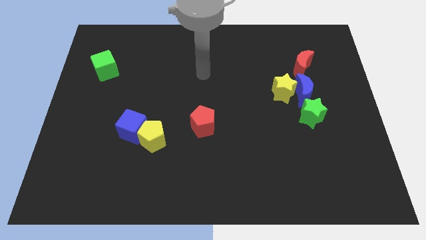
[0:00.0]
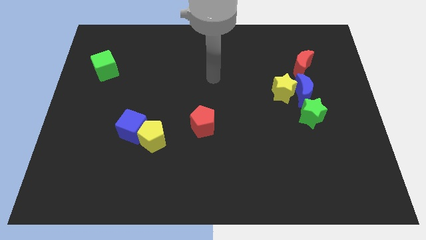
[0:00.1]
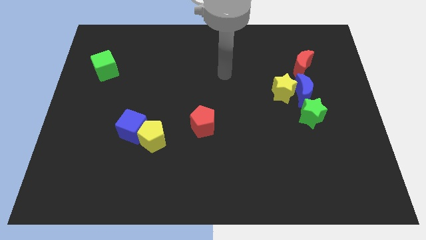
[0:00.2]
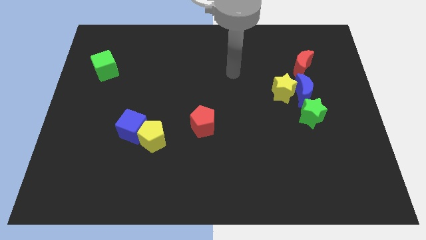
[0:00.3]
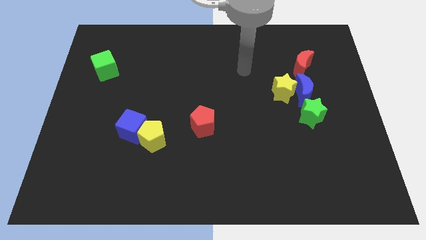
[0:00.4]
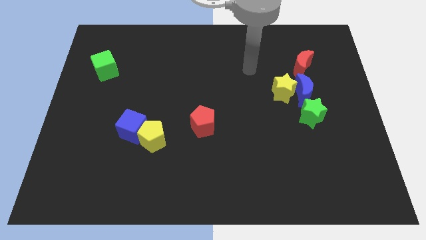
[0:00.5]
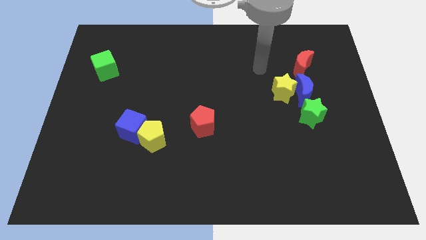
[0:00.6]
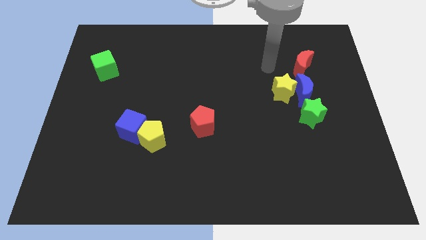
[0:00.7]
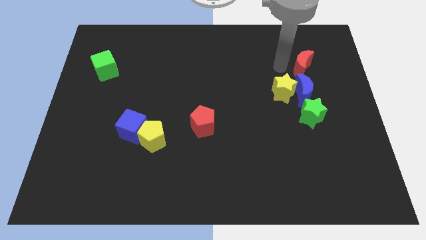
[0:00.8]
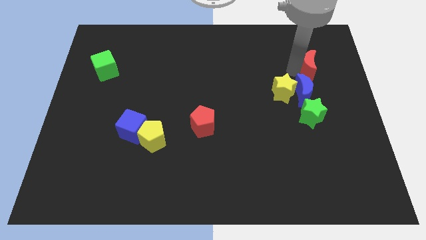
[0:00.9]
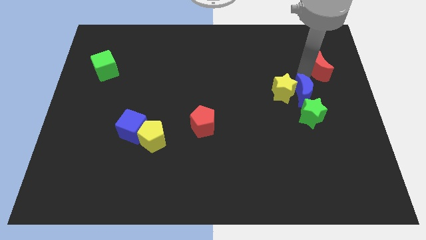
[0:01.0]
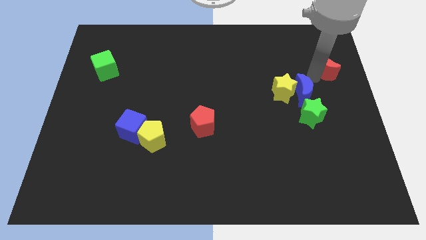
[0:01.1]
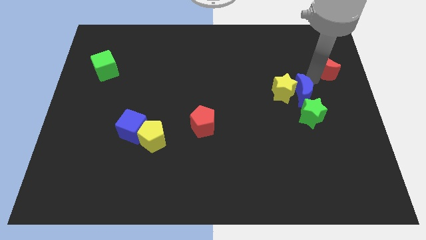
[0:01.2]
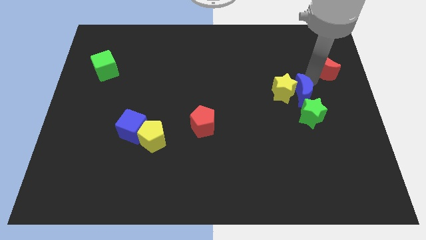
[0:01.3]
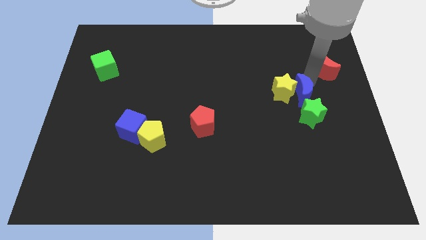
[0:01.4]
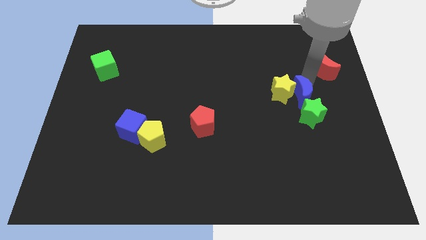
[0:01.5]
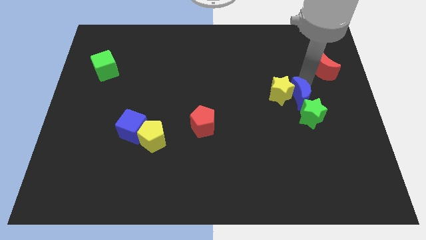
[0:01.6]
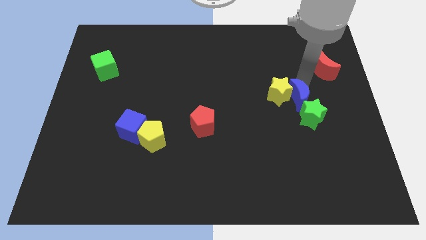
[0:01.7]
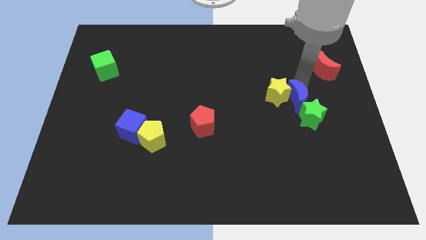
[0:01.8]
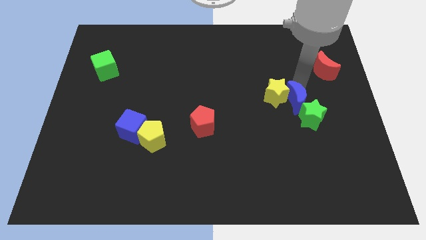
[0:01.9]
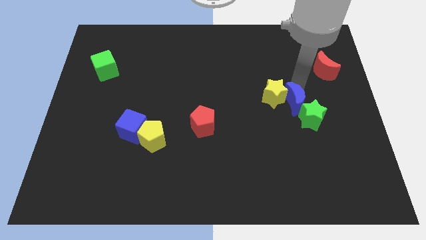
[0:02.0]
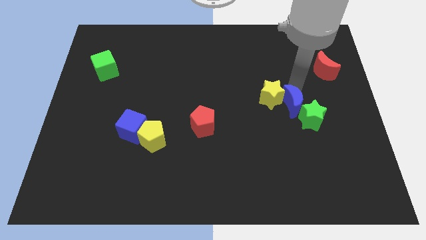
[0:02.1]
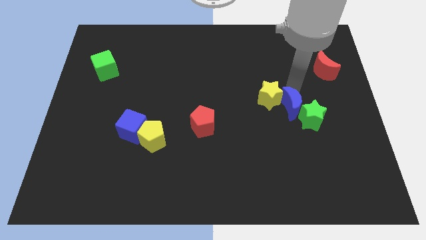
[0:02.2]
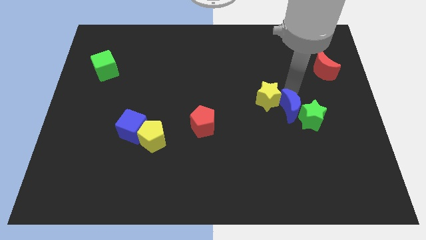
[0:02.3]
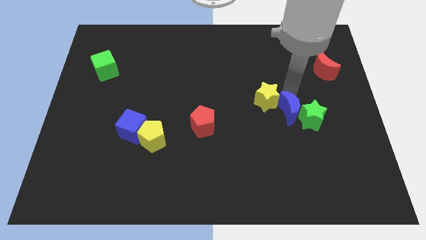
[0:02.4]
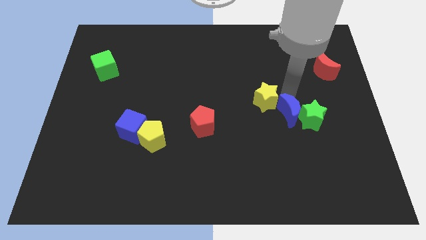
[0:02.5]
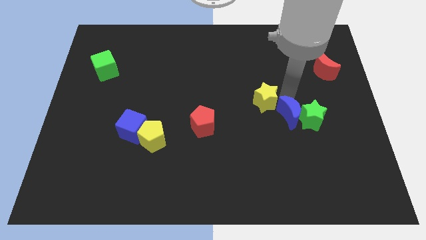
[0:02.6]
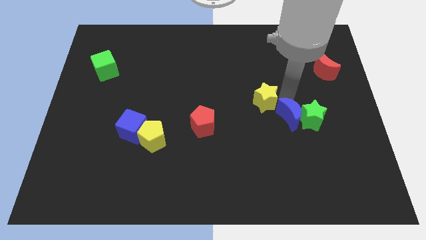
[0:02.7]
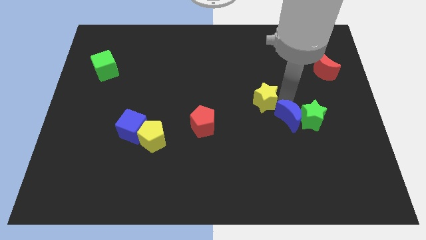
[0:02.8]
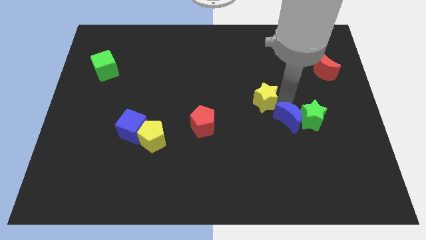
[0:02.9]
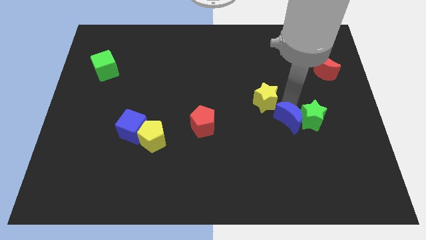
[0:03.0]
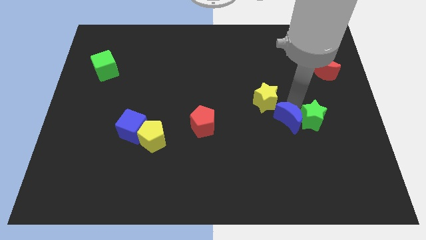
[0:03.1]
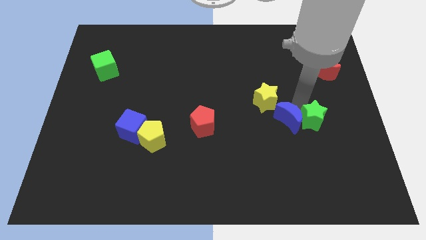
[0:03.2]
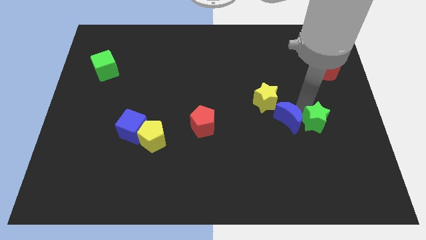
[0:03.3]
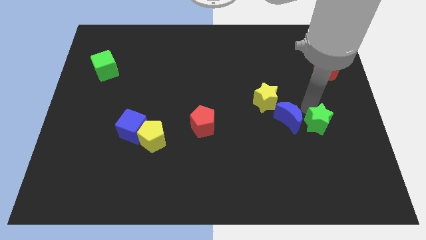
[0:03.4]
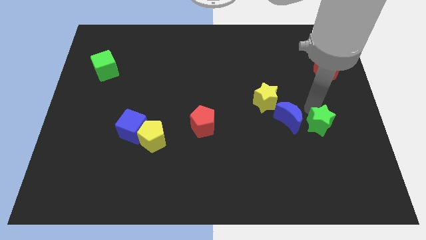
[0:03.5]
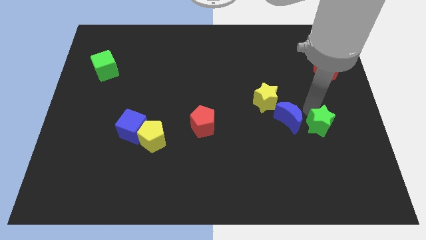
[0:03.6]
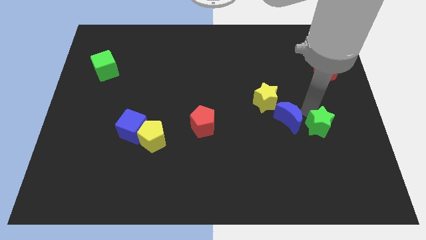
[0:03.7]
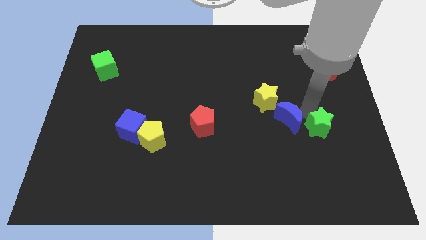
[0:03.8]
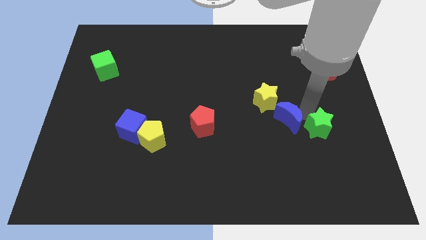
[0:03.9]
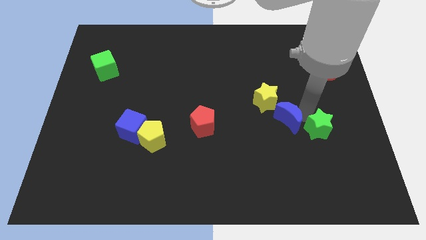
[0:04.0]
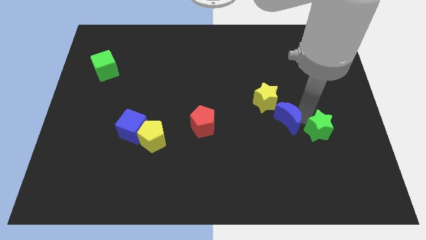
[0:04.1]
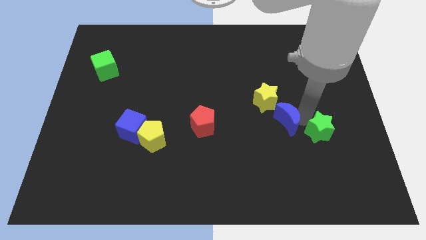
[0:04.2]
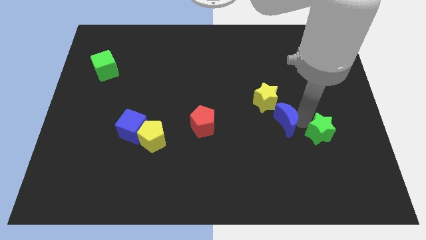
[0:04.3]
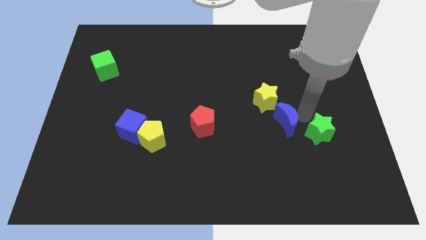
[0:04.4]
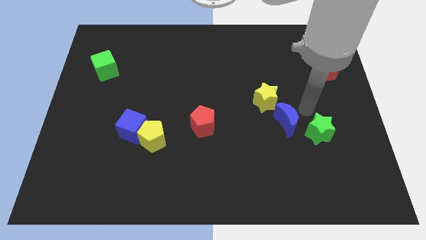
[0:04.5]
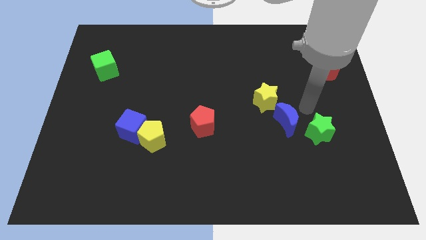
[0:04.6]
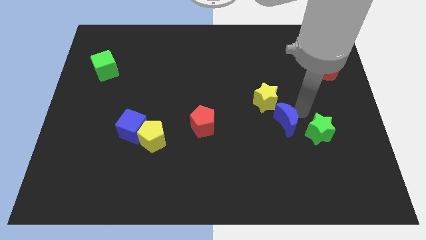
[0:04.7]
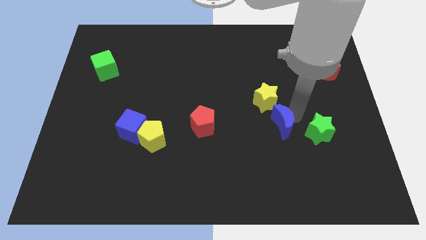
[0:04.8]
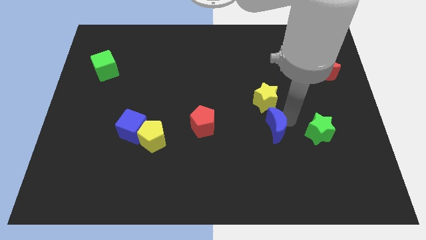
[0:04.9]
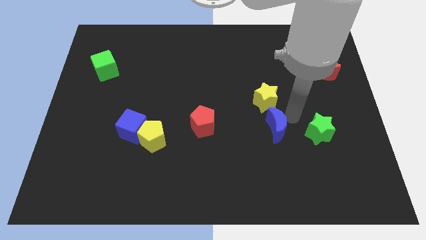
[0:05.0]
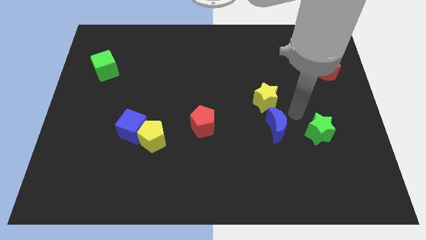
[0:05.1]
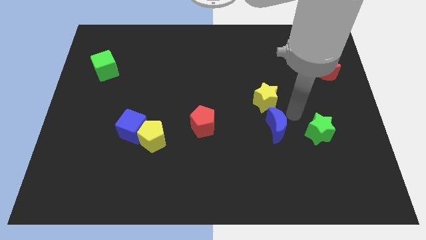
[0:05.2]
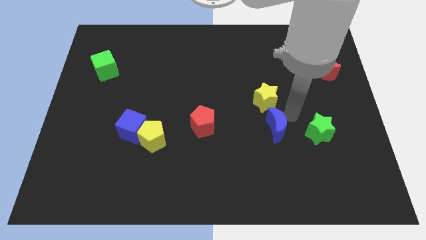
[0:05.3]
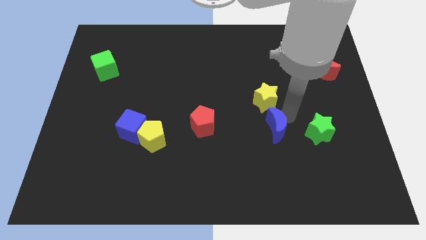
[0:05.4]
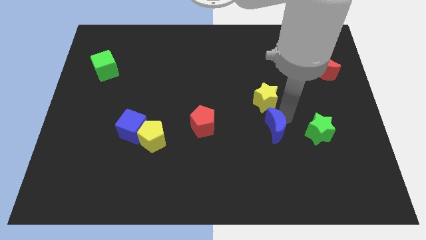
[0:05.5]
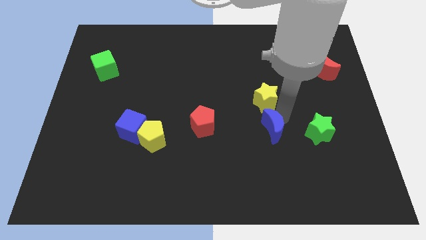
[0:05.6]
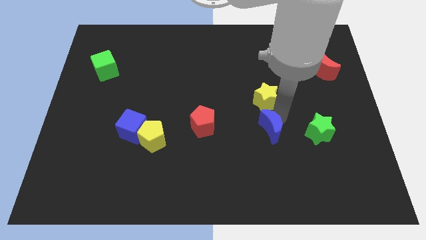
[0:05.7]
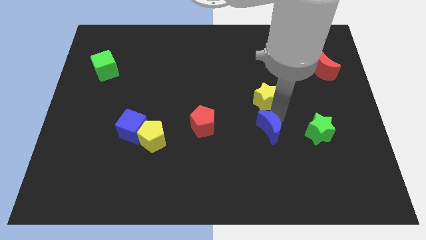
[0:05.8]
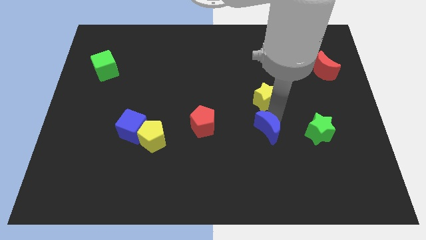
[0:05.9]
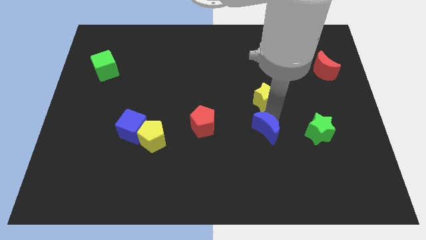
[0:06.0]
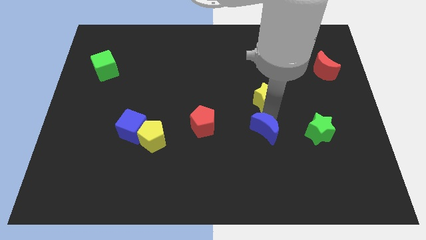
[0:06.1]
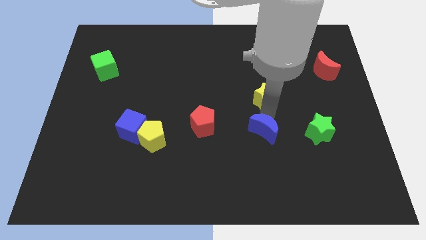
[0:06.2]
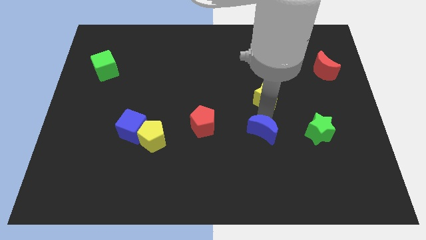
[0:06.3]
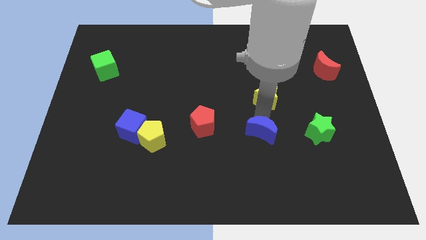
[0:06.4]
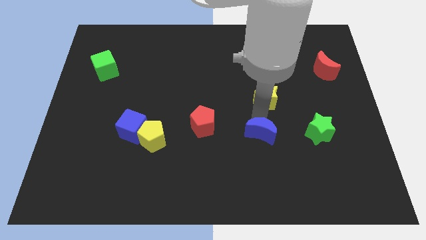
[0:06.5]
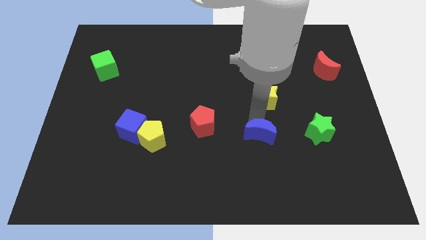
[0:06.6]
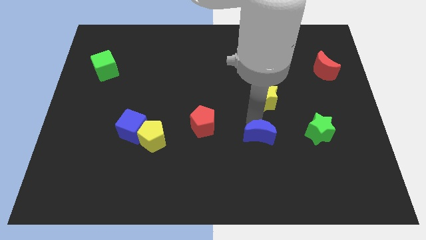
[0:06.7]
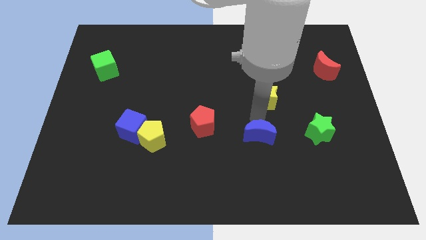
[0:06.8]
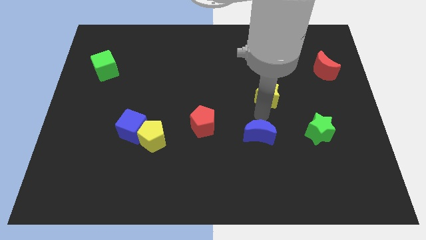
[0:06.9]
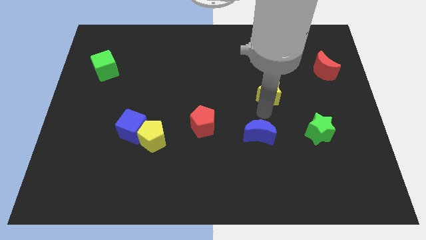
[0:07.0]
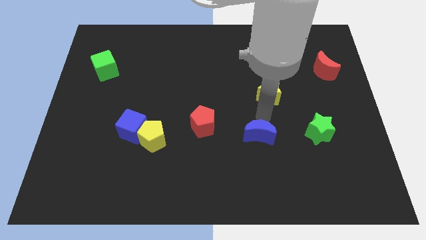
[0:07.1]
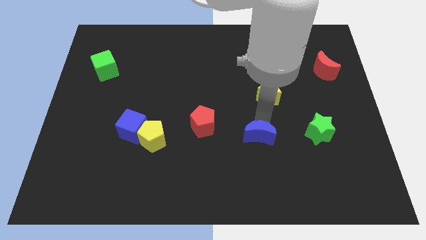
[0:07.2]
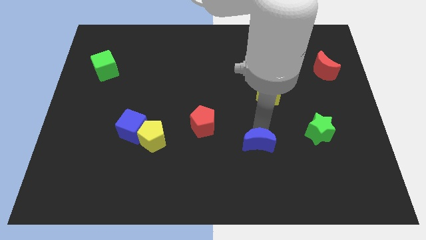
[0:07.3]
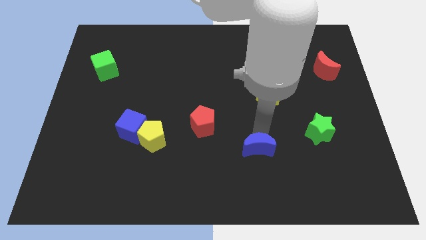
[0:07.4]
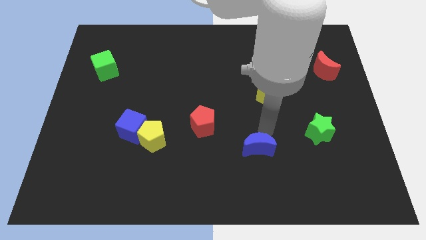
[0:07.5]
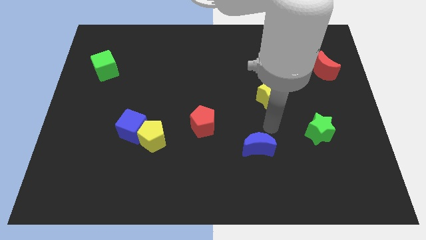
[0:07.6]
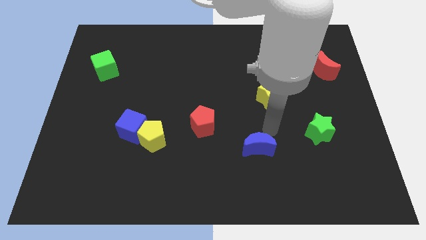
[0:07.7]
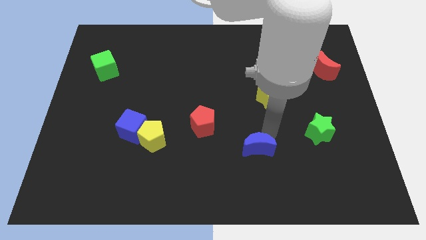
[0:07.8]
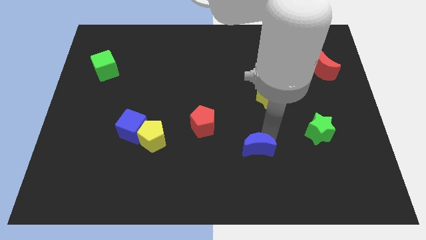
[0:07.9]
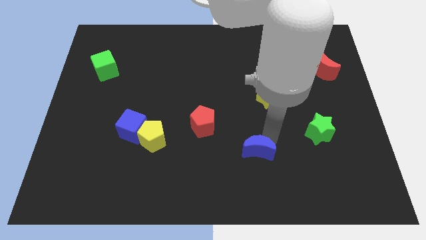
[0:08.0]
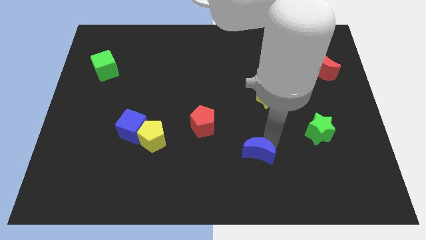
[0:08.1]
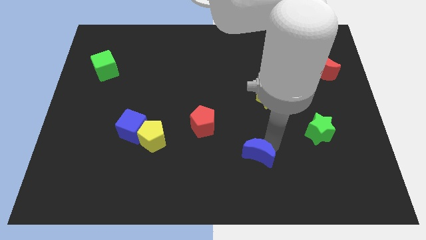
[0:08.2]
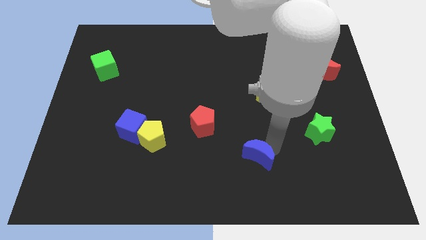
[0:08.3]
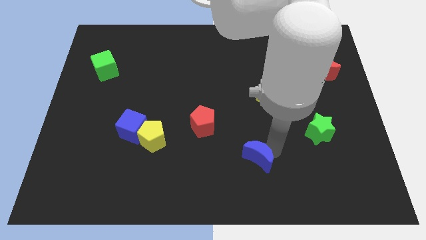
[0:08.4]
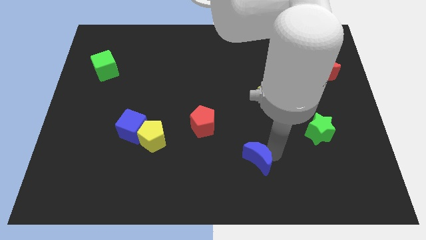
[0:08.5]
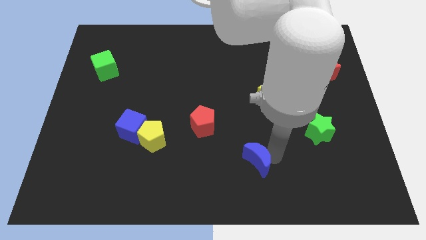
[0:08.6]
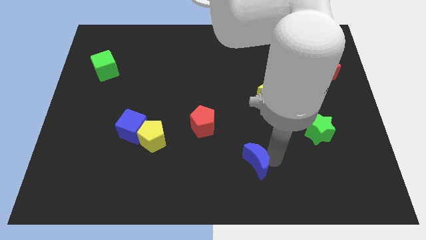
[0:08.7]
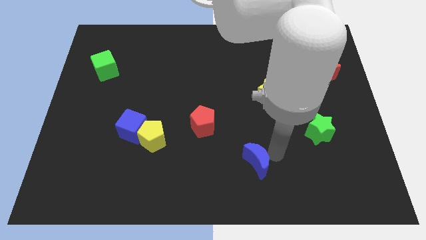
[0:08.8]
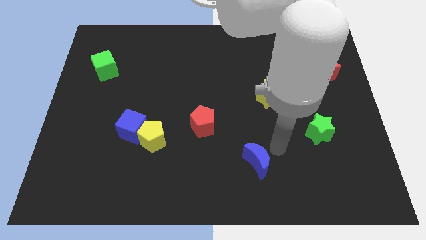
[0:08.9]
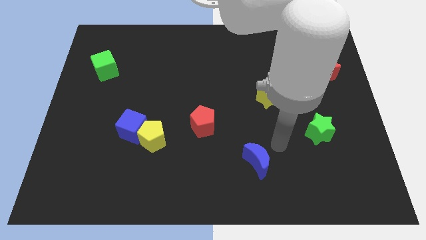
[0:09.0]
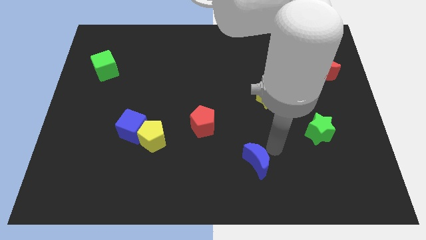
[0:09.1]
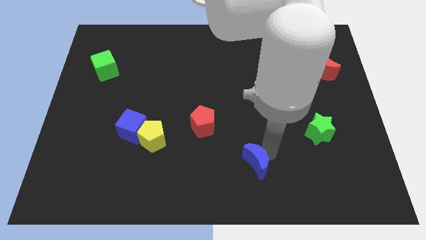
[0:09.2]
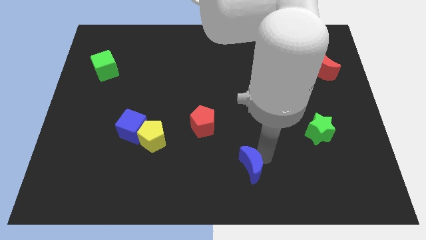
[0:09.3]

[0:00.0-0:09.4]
move the blue moon to the bottom side
